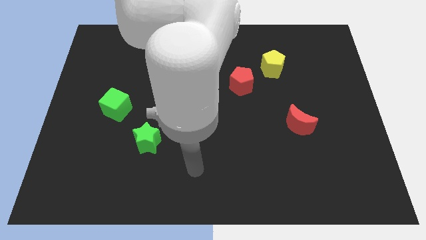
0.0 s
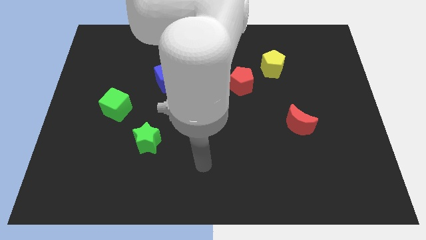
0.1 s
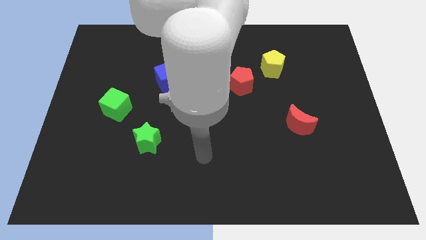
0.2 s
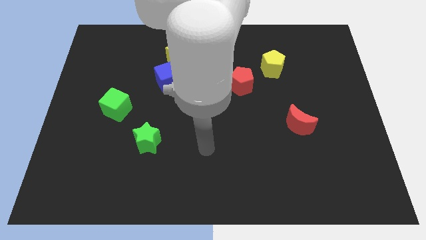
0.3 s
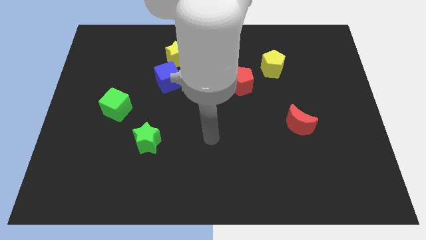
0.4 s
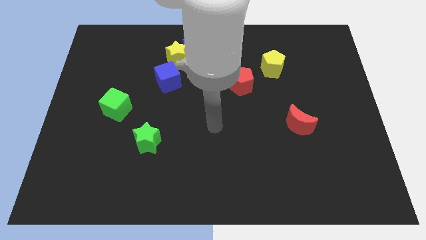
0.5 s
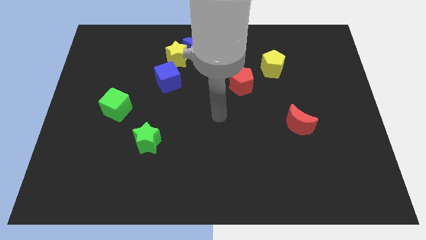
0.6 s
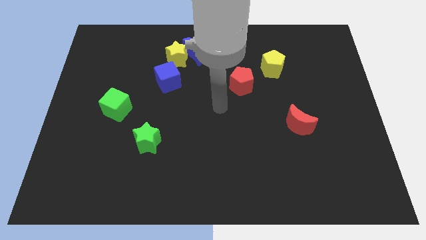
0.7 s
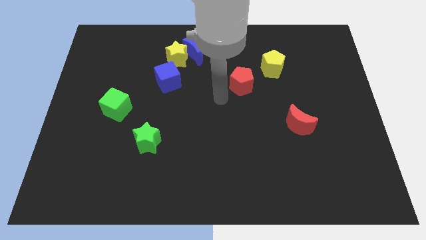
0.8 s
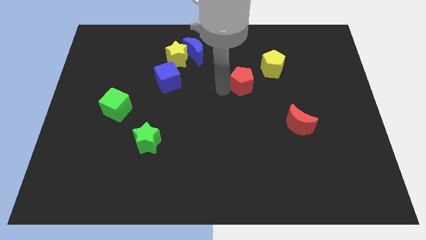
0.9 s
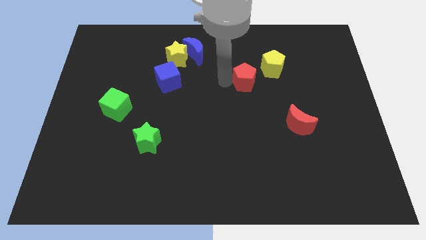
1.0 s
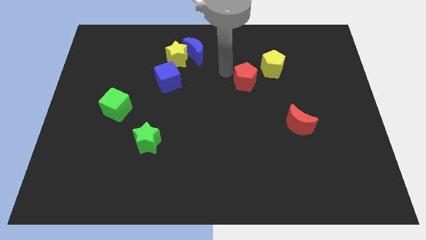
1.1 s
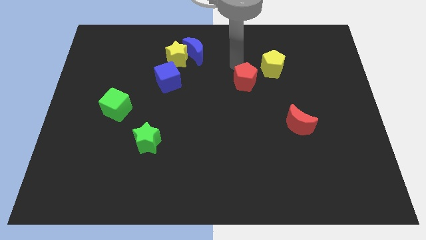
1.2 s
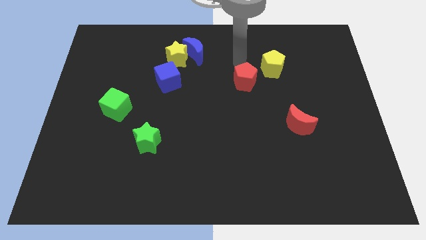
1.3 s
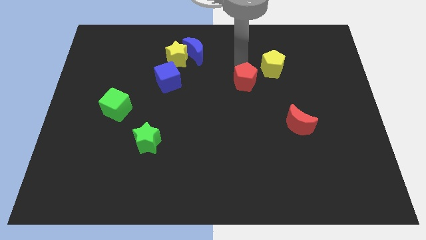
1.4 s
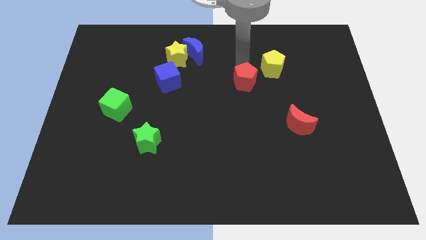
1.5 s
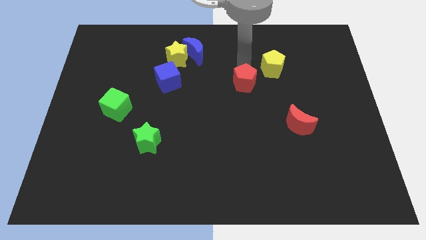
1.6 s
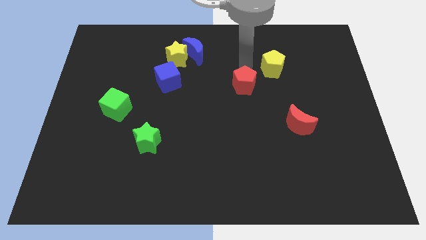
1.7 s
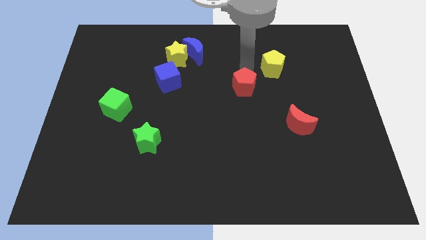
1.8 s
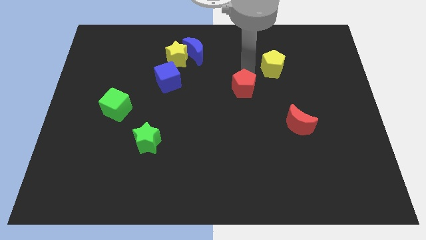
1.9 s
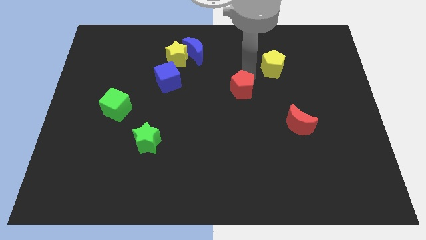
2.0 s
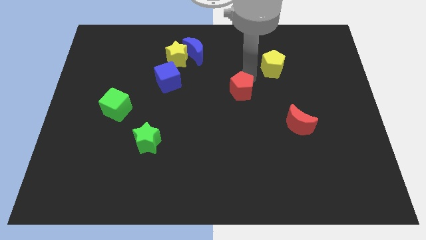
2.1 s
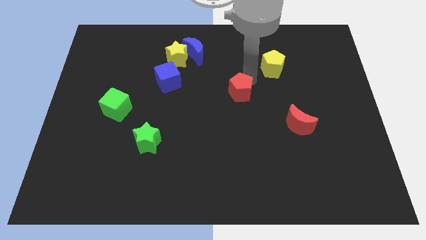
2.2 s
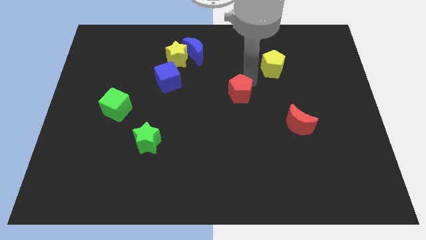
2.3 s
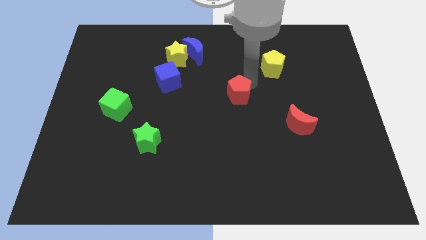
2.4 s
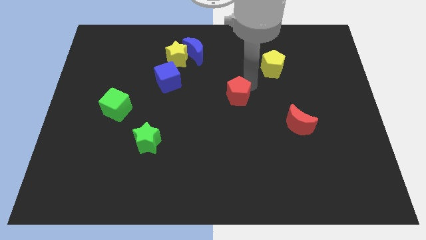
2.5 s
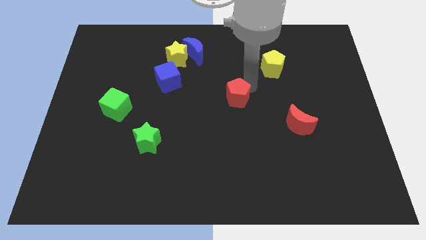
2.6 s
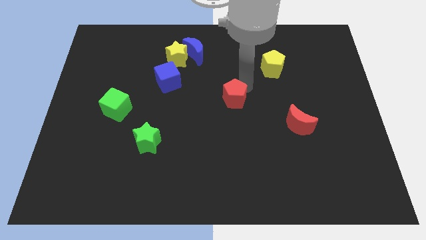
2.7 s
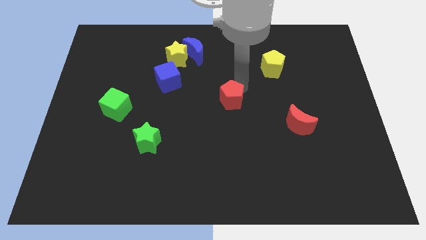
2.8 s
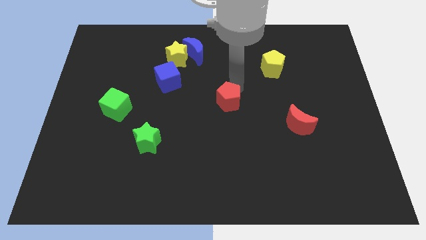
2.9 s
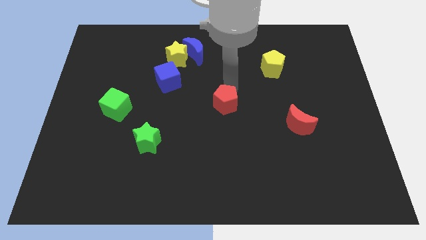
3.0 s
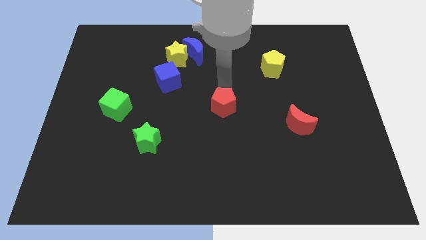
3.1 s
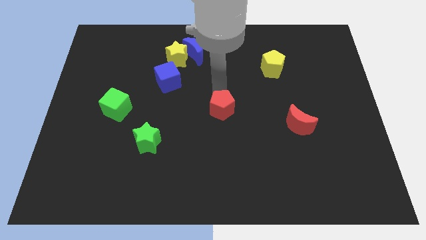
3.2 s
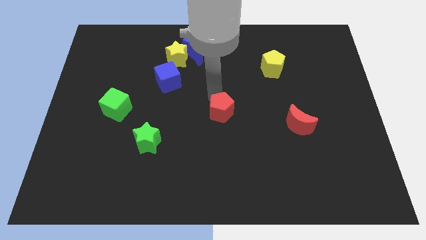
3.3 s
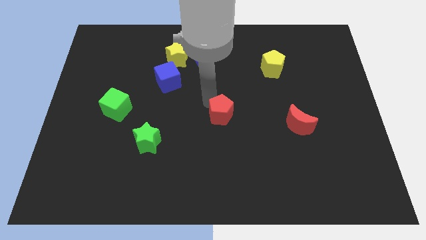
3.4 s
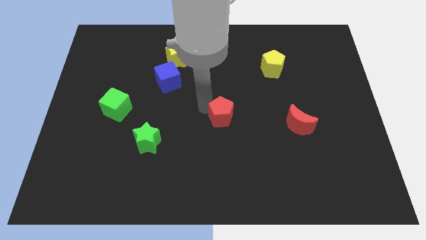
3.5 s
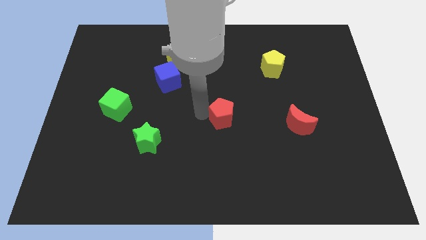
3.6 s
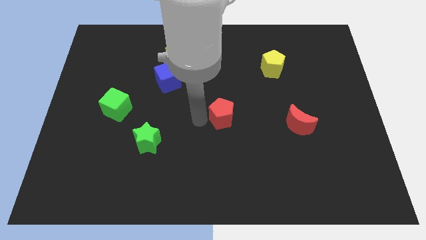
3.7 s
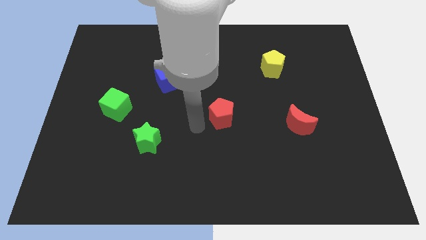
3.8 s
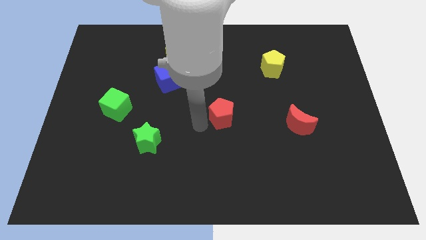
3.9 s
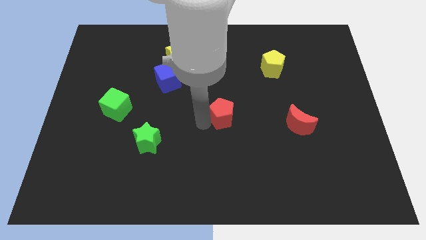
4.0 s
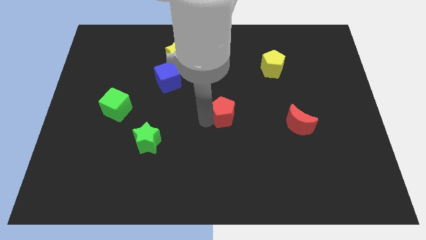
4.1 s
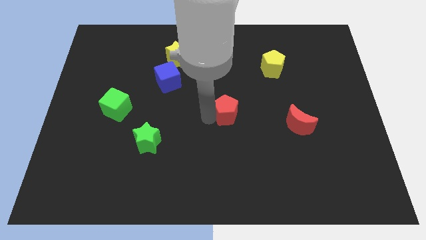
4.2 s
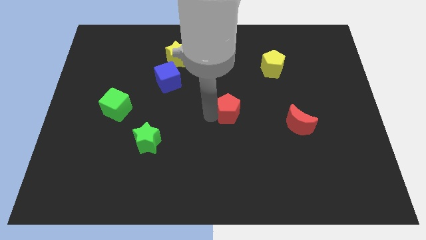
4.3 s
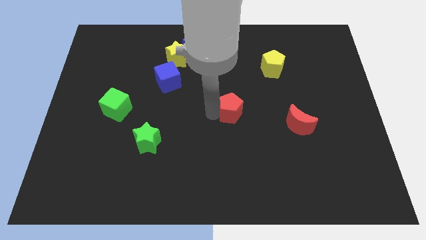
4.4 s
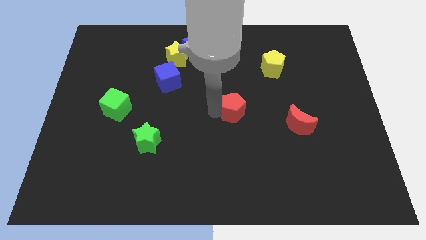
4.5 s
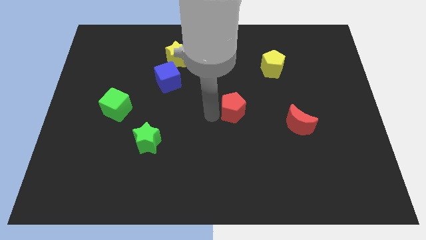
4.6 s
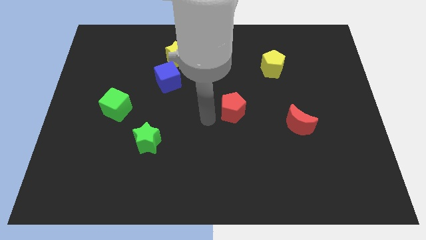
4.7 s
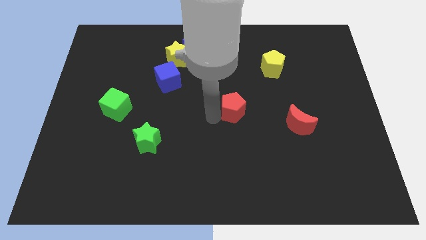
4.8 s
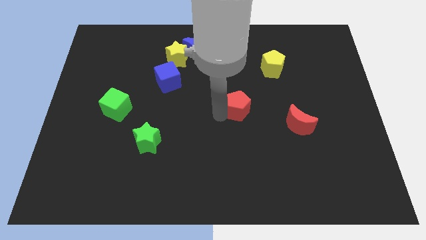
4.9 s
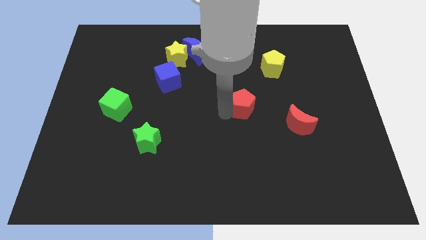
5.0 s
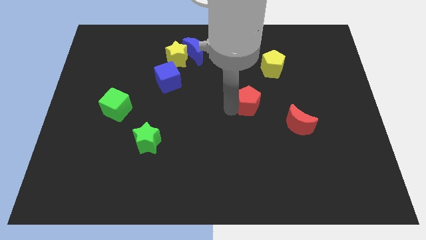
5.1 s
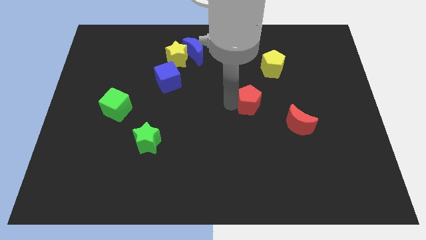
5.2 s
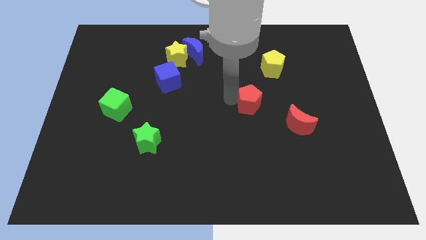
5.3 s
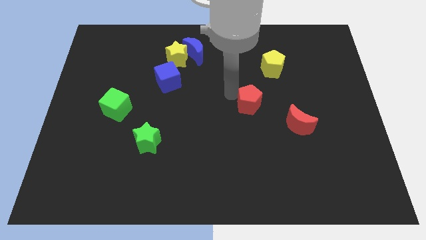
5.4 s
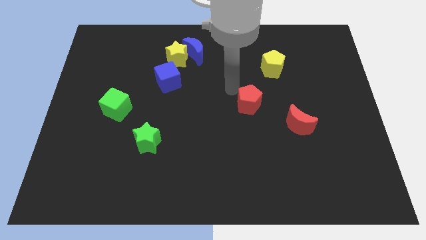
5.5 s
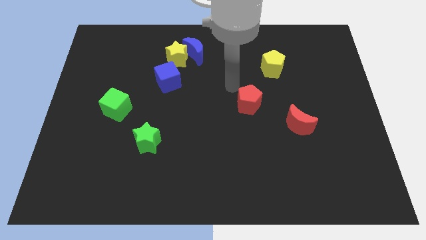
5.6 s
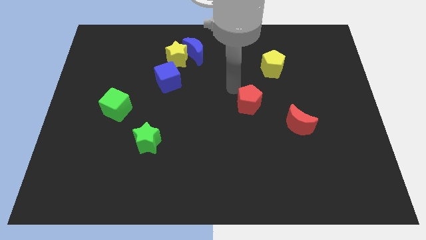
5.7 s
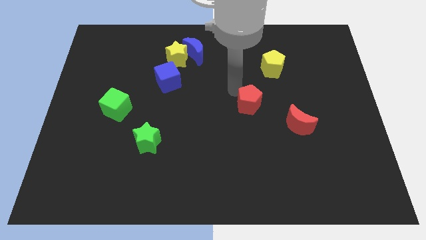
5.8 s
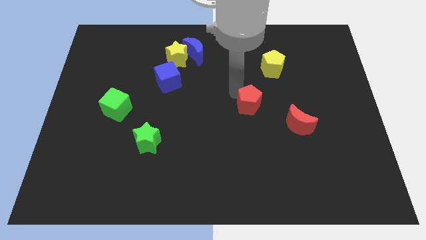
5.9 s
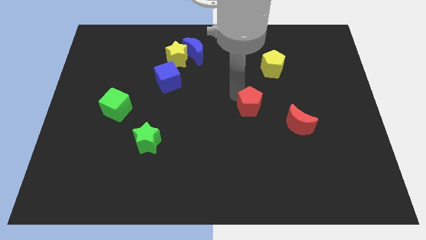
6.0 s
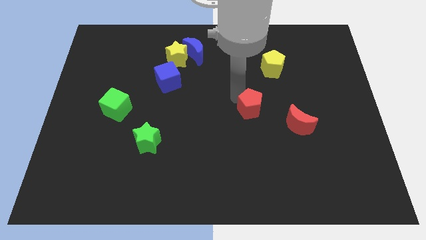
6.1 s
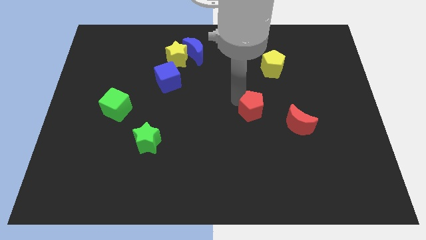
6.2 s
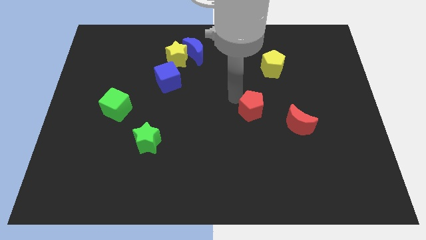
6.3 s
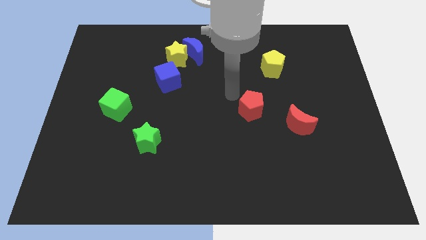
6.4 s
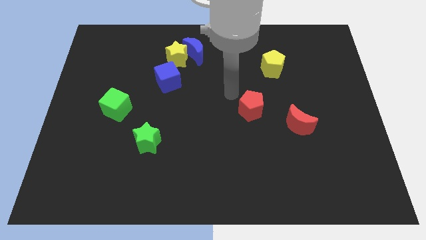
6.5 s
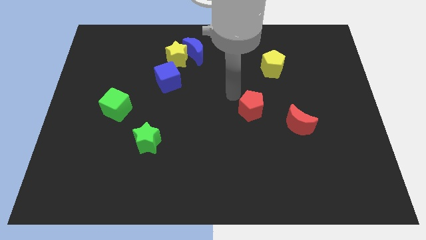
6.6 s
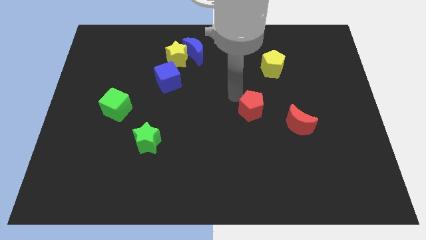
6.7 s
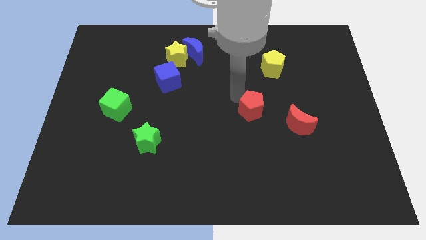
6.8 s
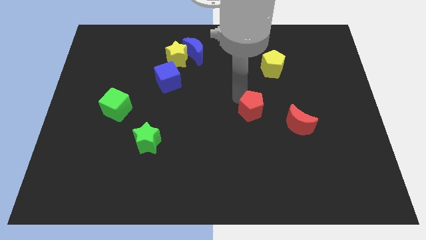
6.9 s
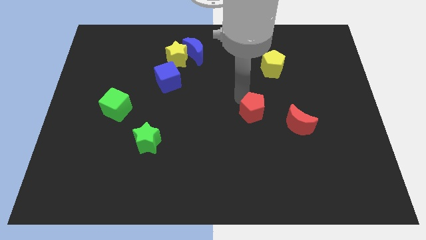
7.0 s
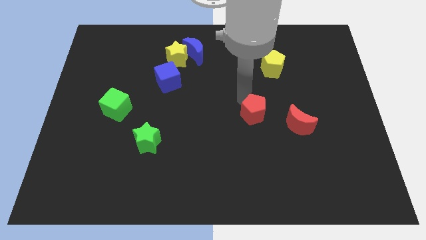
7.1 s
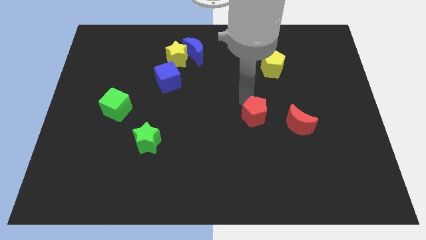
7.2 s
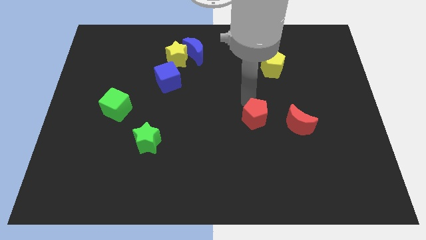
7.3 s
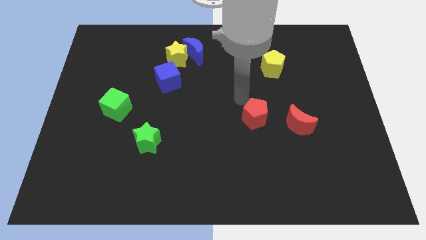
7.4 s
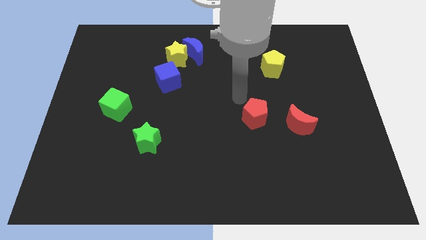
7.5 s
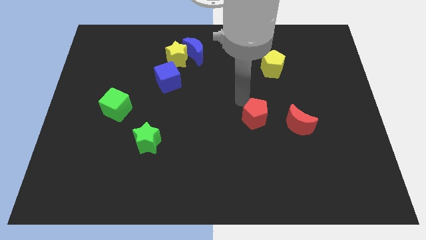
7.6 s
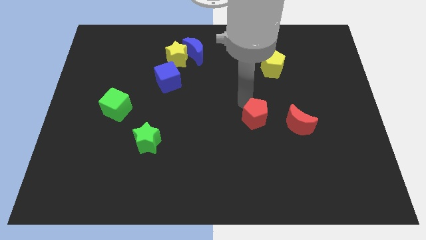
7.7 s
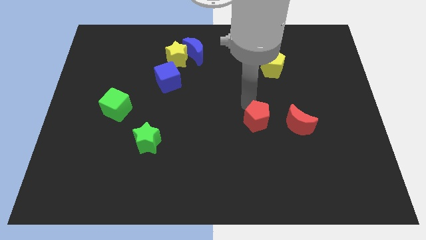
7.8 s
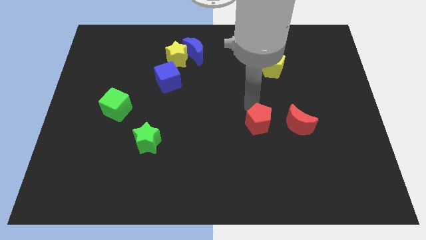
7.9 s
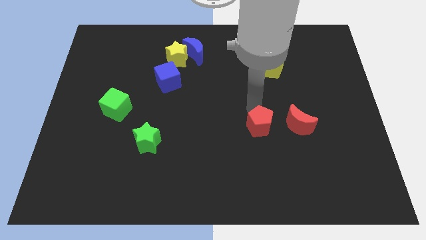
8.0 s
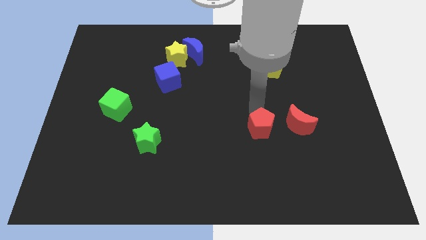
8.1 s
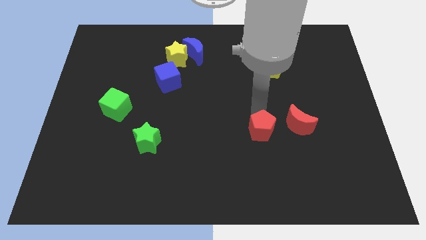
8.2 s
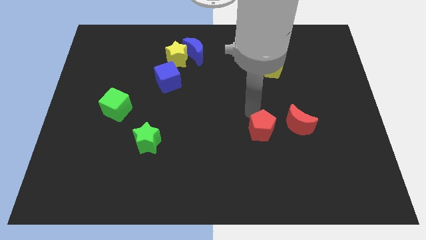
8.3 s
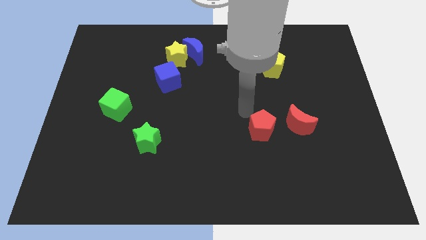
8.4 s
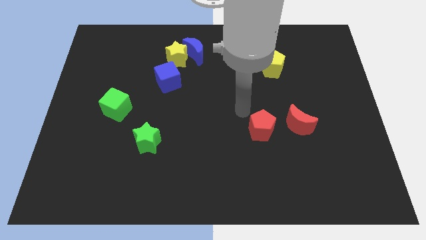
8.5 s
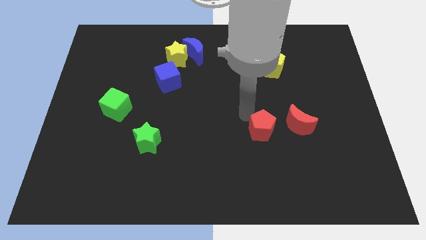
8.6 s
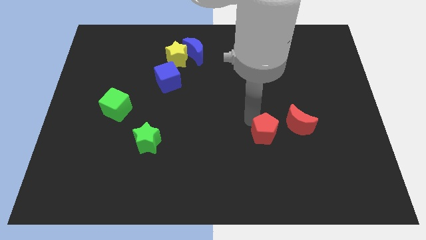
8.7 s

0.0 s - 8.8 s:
move the red pentagon to the bottom left of the red moon
